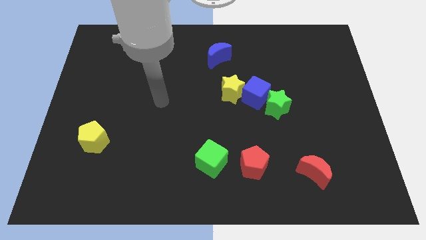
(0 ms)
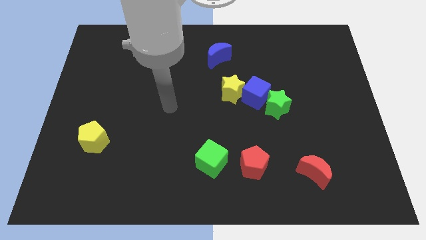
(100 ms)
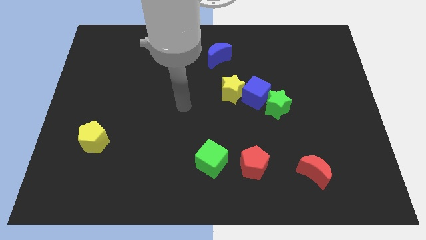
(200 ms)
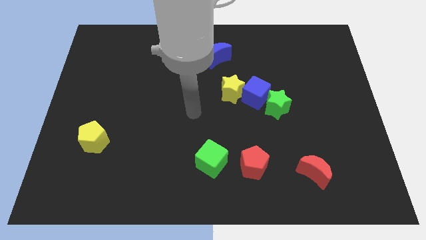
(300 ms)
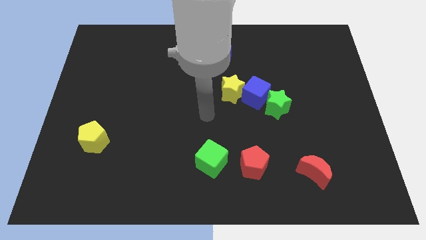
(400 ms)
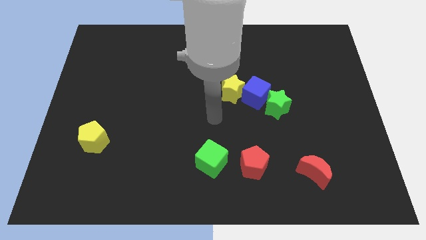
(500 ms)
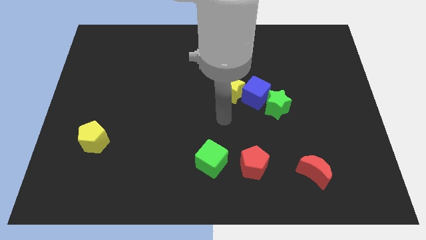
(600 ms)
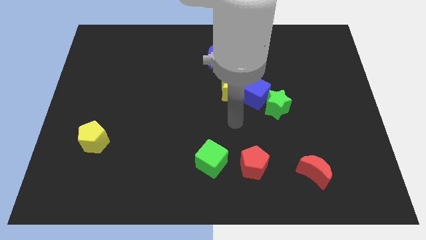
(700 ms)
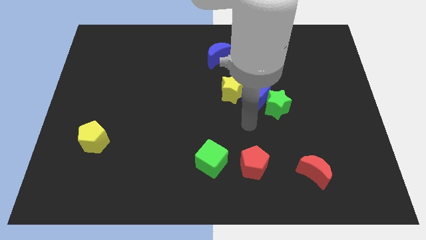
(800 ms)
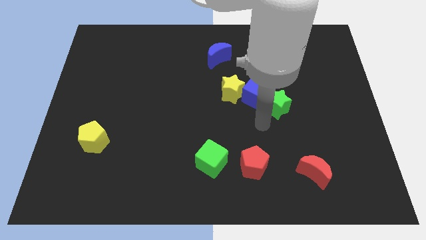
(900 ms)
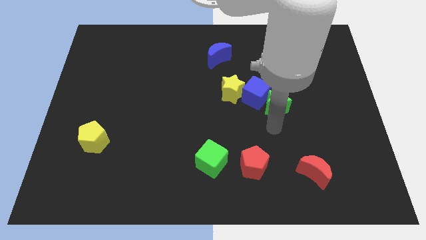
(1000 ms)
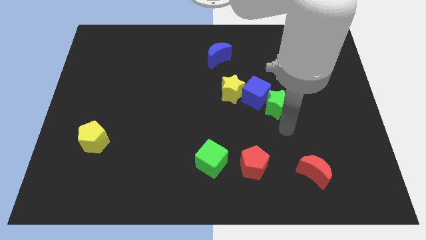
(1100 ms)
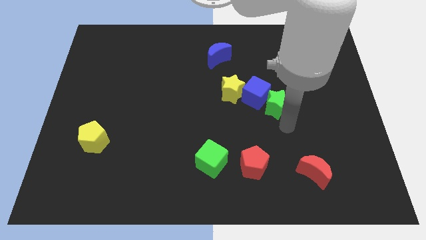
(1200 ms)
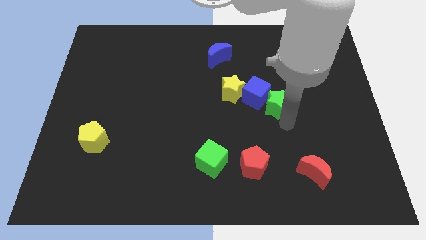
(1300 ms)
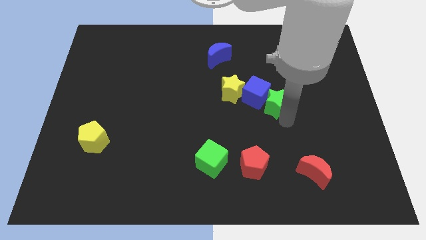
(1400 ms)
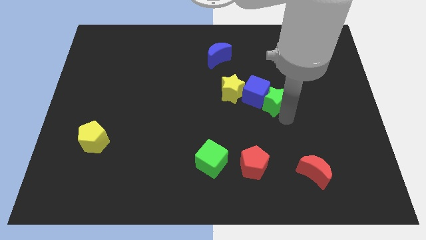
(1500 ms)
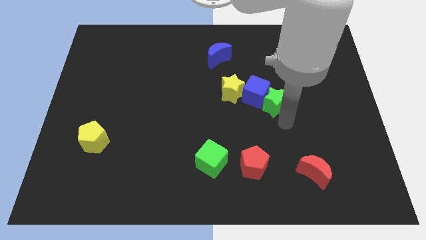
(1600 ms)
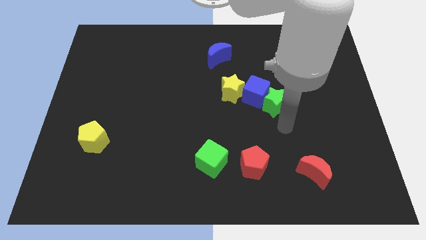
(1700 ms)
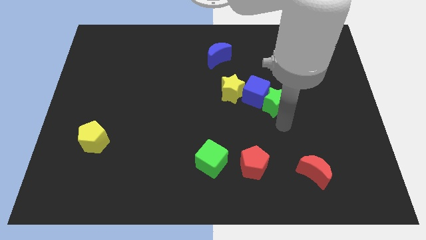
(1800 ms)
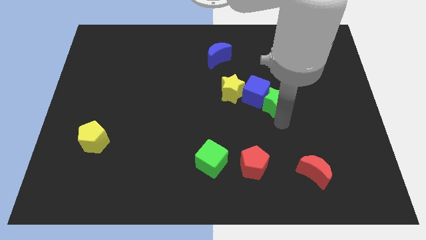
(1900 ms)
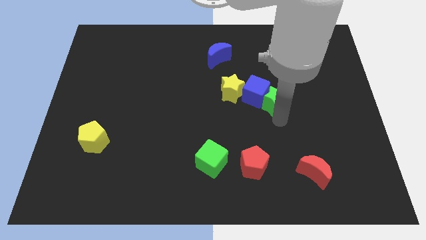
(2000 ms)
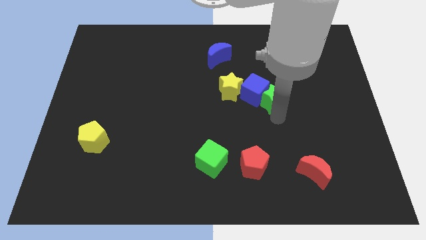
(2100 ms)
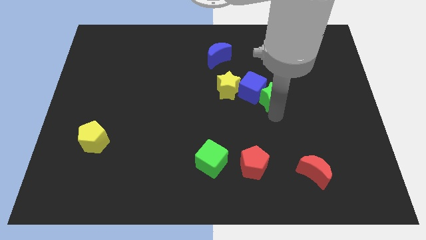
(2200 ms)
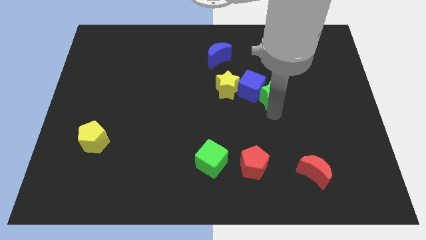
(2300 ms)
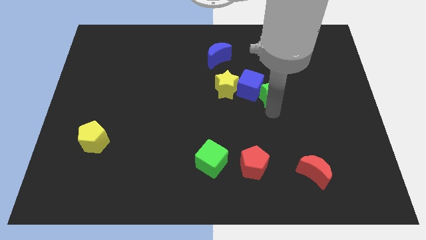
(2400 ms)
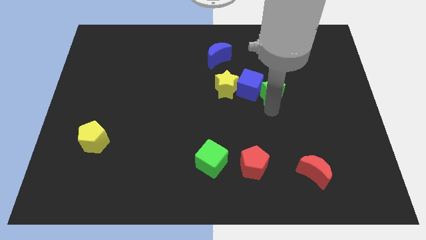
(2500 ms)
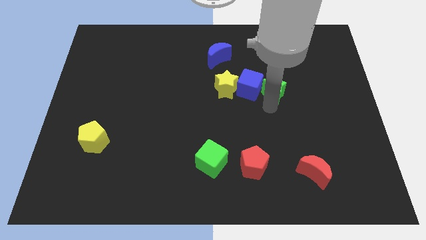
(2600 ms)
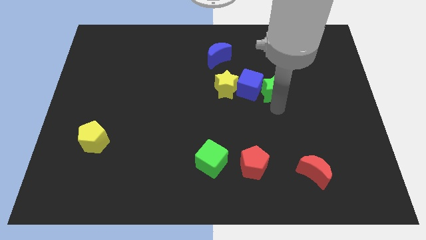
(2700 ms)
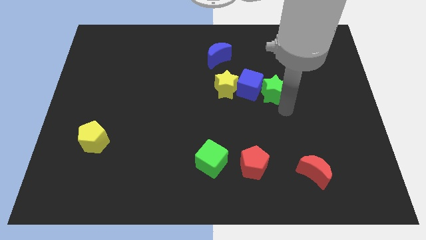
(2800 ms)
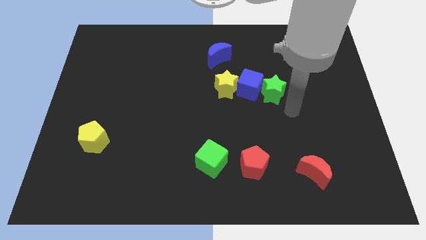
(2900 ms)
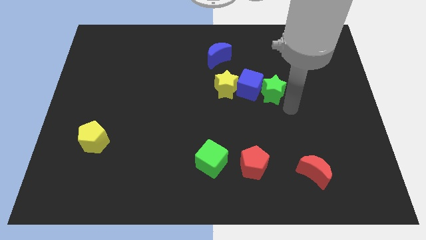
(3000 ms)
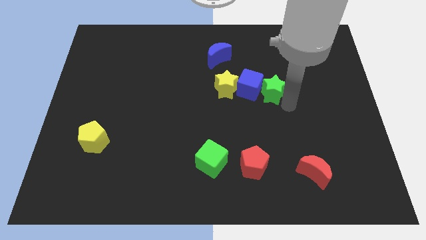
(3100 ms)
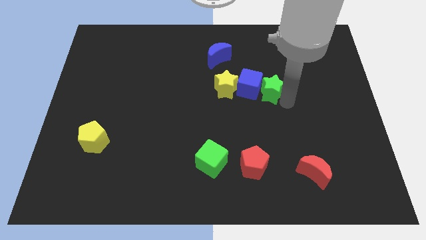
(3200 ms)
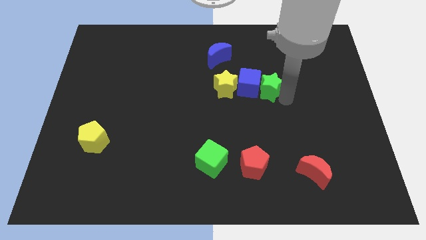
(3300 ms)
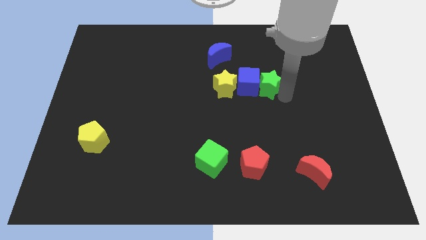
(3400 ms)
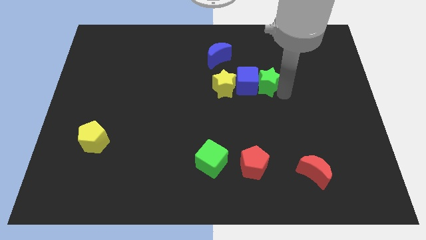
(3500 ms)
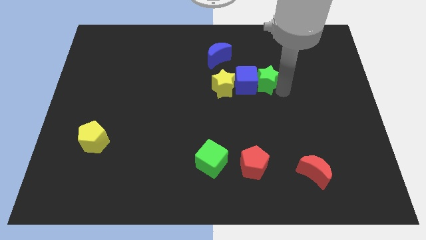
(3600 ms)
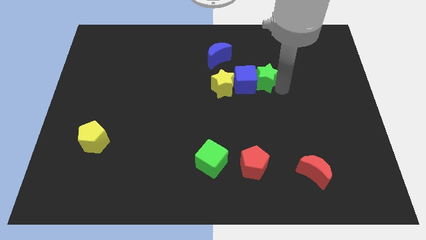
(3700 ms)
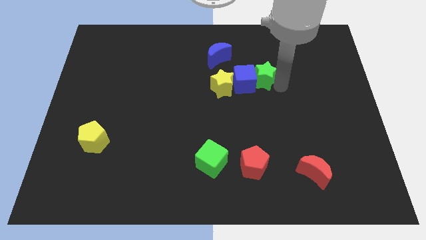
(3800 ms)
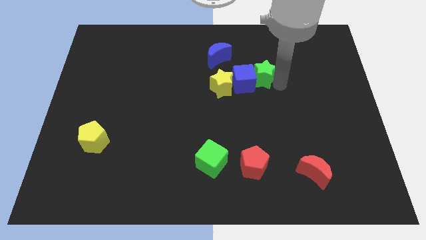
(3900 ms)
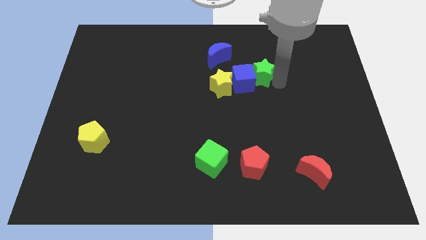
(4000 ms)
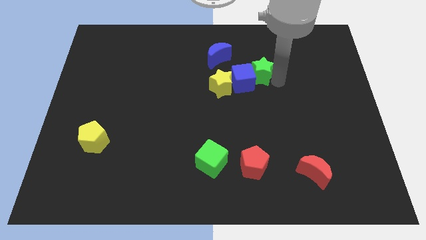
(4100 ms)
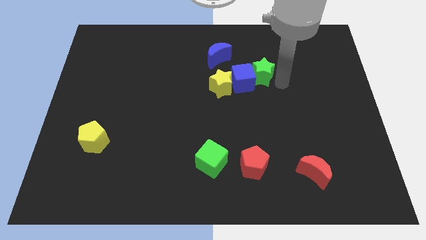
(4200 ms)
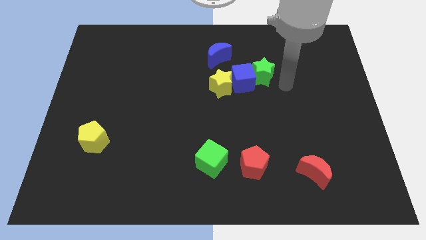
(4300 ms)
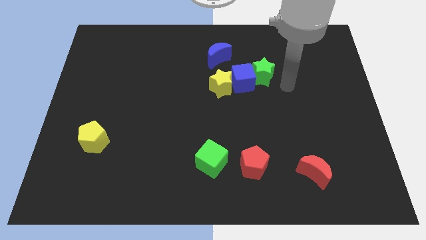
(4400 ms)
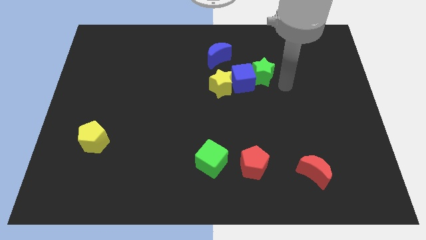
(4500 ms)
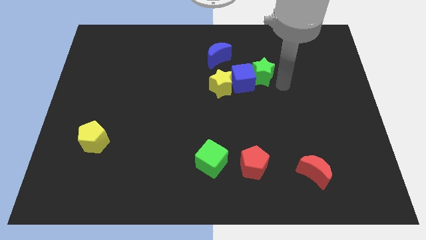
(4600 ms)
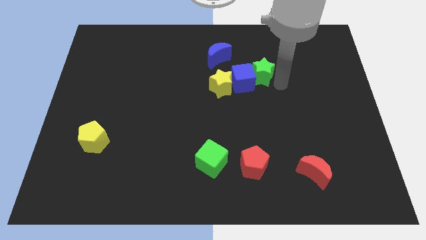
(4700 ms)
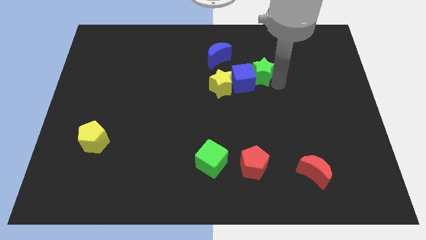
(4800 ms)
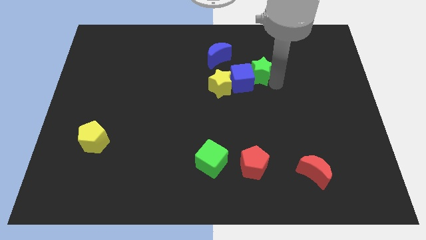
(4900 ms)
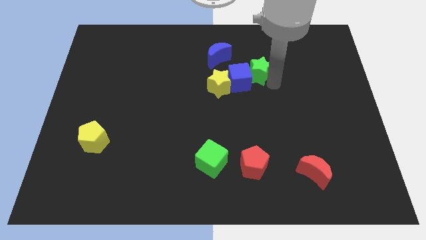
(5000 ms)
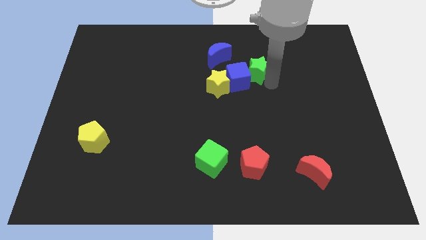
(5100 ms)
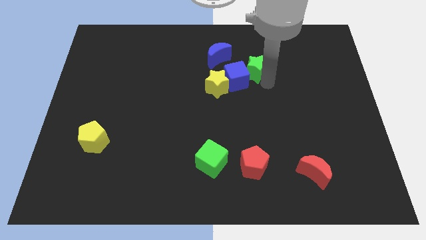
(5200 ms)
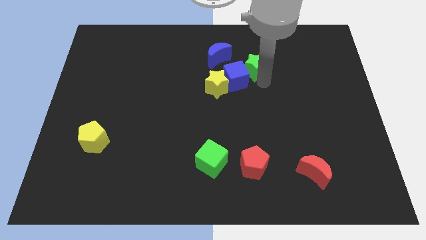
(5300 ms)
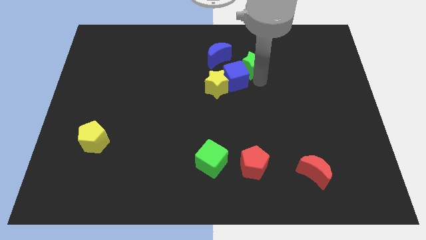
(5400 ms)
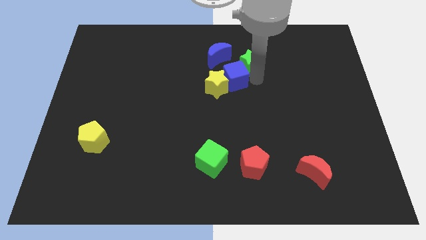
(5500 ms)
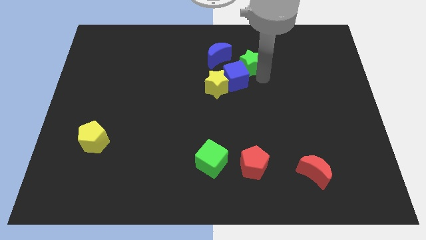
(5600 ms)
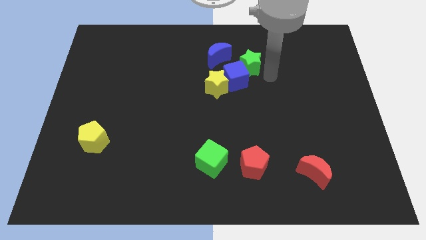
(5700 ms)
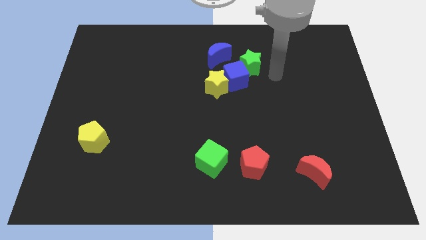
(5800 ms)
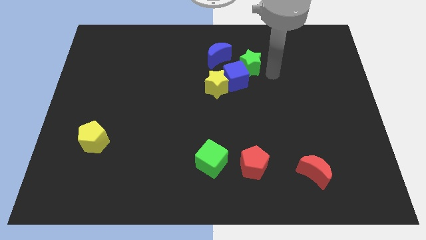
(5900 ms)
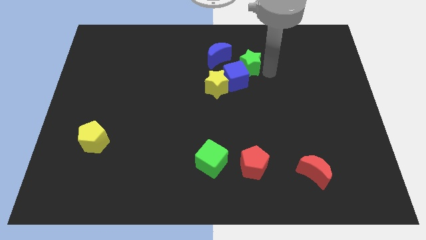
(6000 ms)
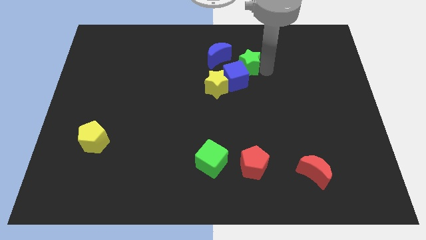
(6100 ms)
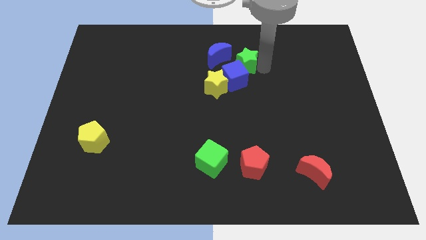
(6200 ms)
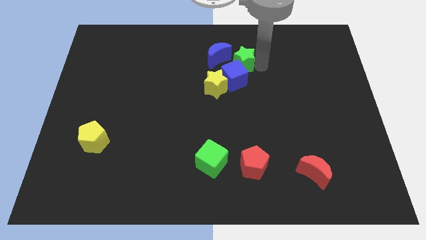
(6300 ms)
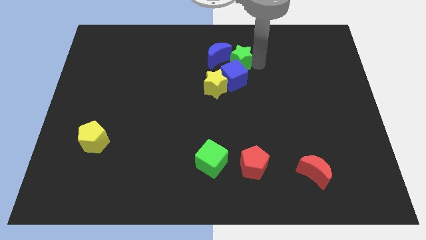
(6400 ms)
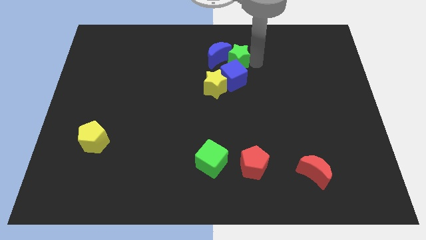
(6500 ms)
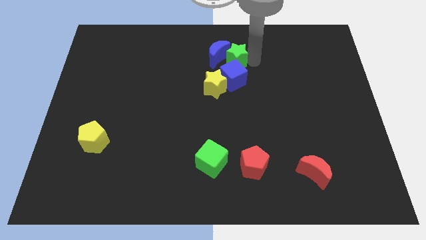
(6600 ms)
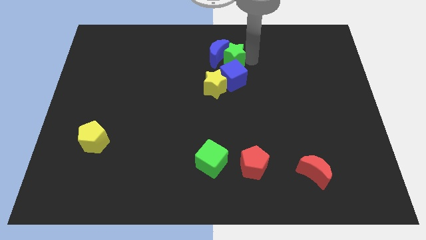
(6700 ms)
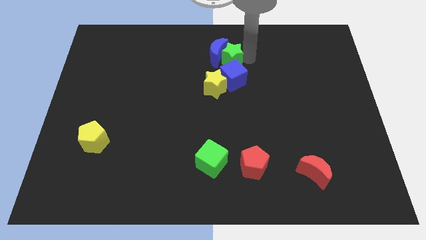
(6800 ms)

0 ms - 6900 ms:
move the green star above the yellow star

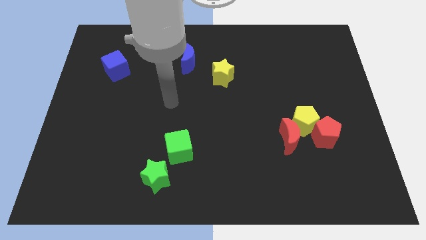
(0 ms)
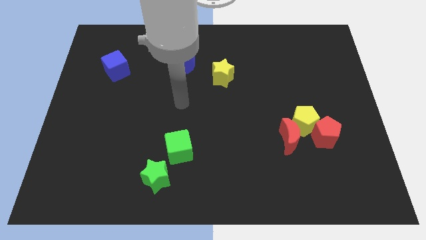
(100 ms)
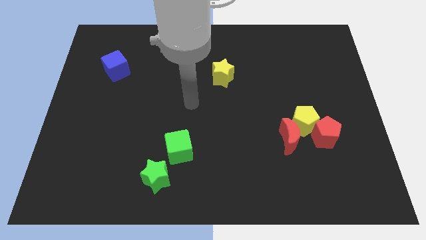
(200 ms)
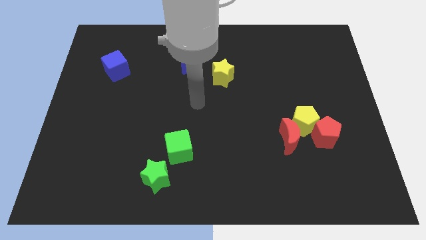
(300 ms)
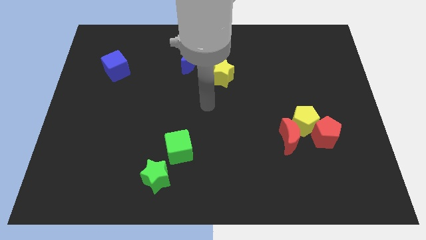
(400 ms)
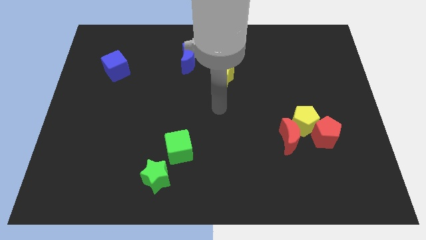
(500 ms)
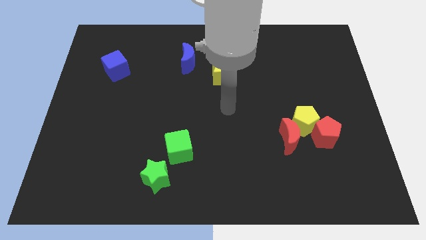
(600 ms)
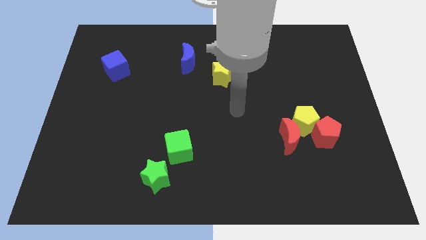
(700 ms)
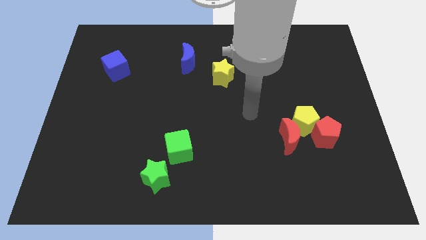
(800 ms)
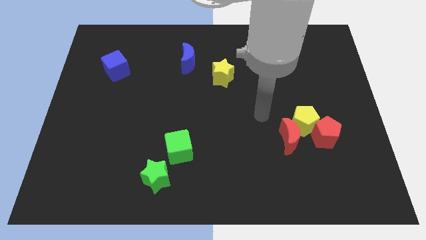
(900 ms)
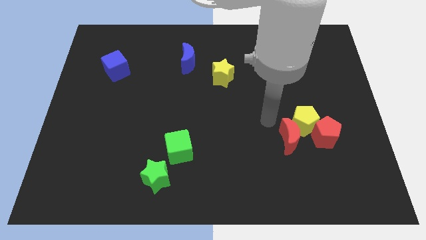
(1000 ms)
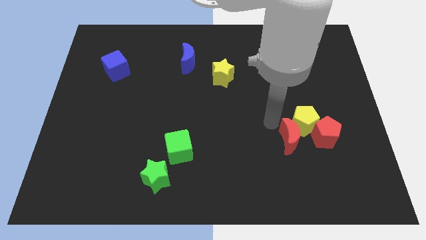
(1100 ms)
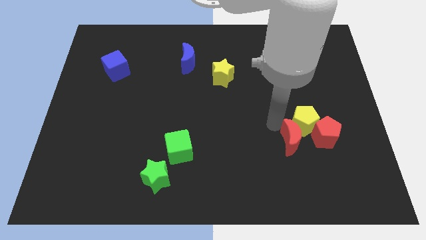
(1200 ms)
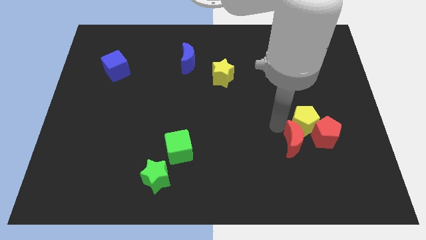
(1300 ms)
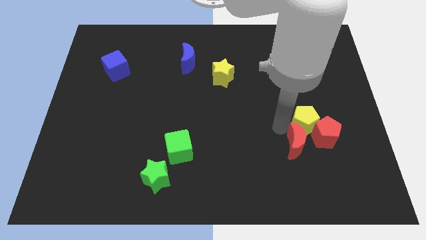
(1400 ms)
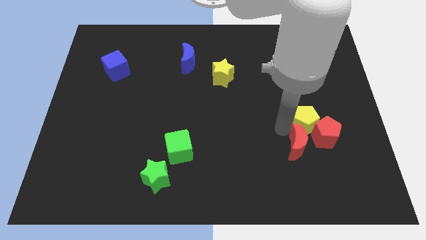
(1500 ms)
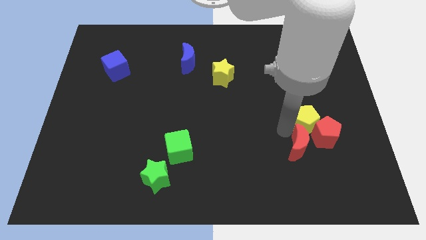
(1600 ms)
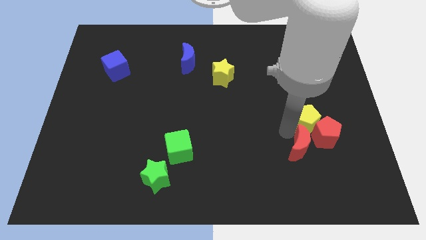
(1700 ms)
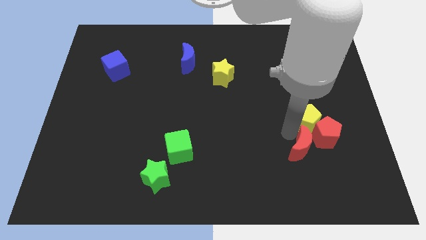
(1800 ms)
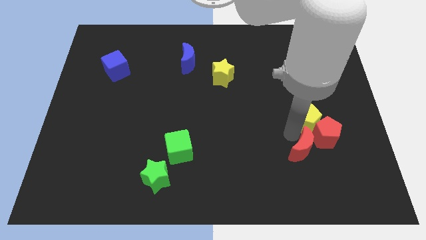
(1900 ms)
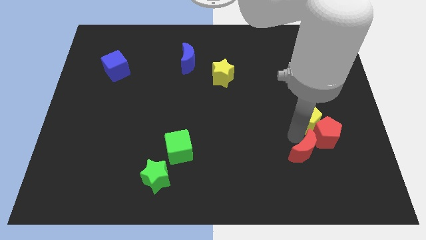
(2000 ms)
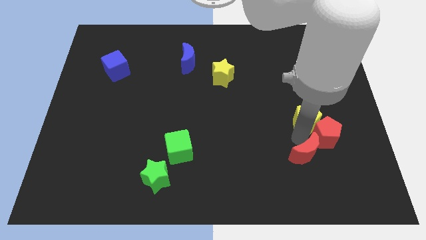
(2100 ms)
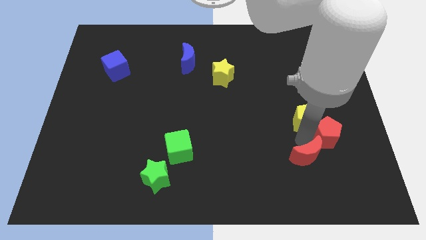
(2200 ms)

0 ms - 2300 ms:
move the red moon to the bottom side of the red pentagon
